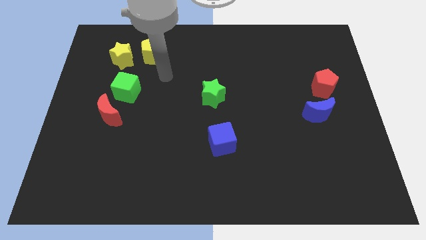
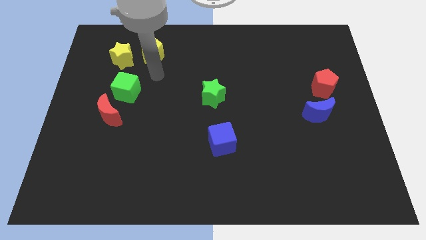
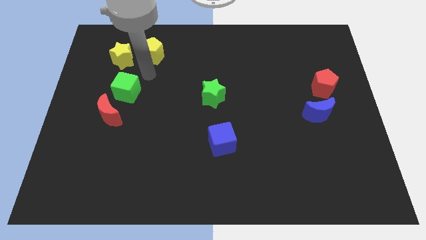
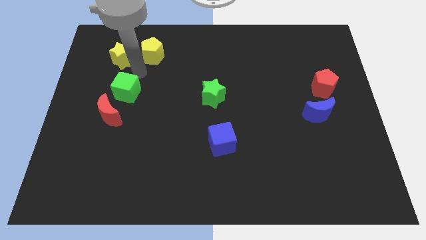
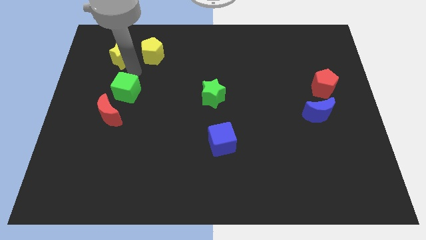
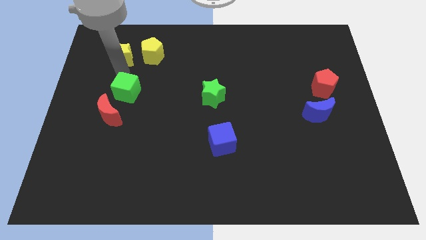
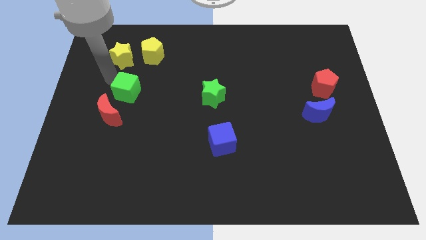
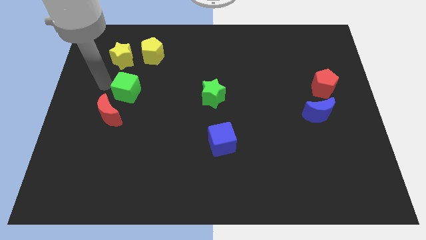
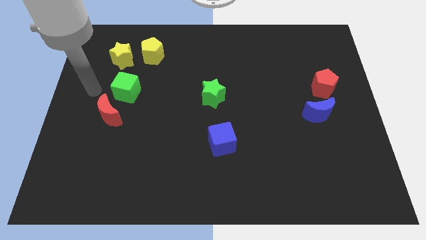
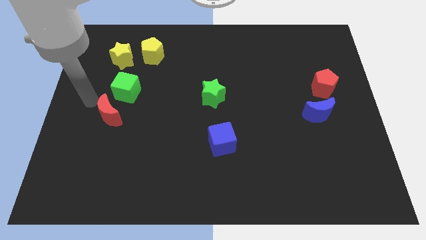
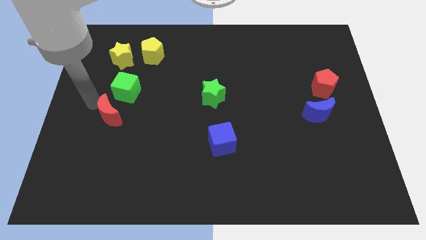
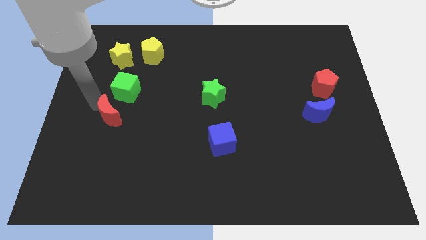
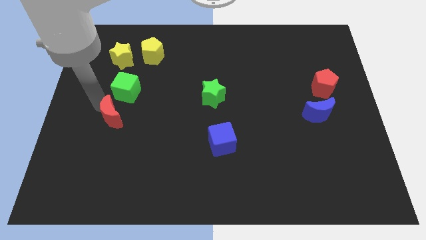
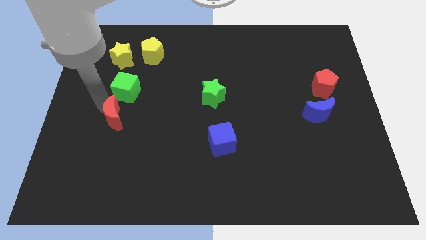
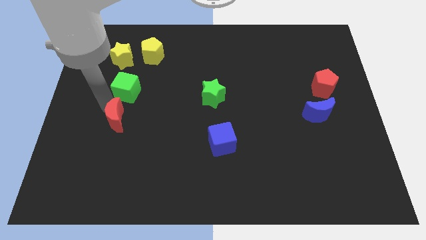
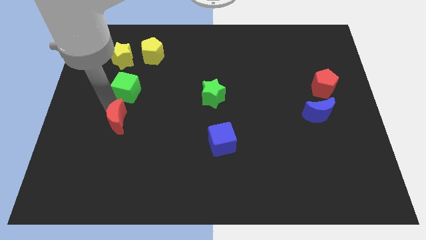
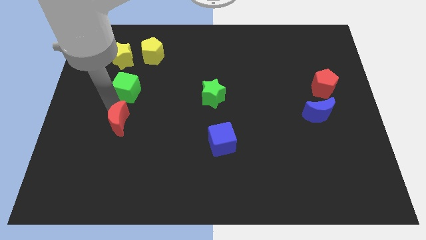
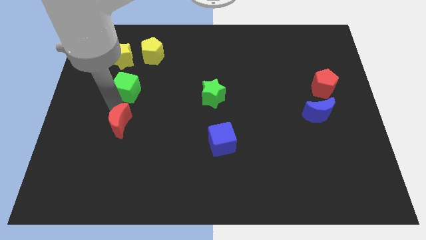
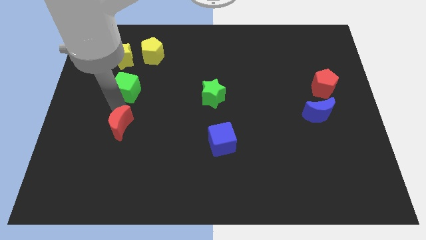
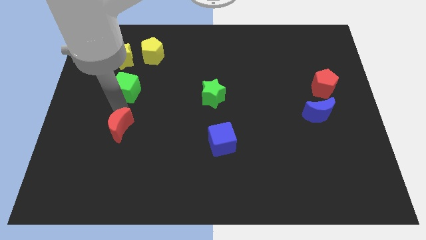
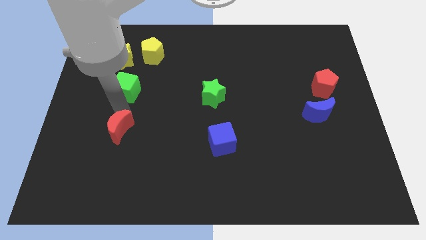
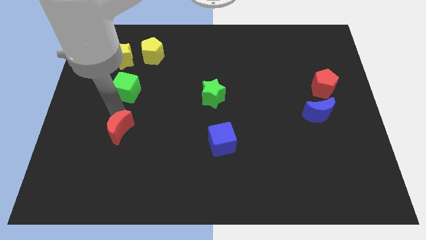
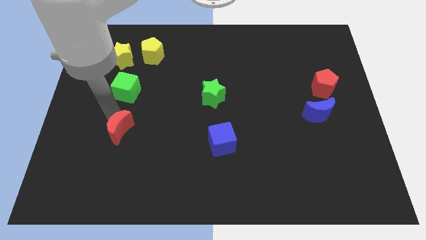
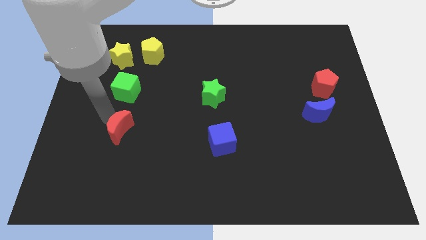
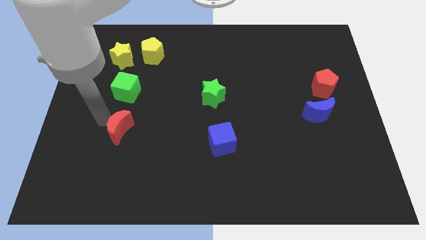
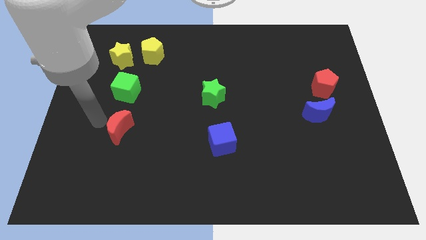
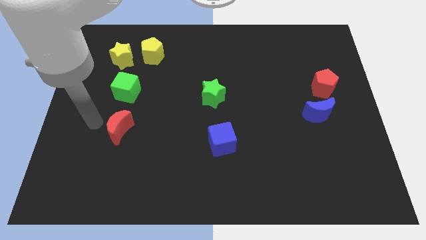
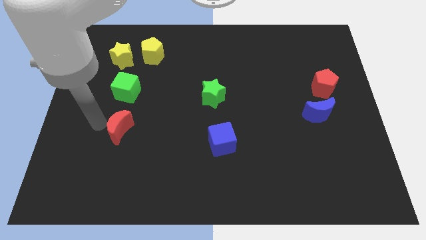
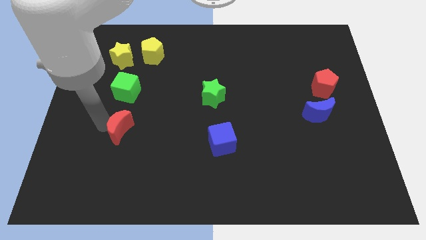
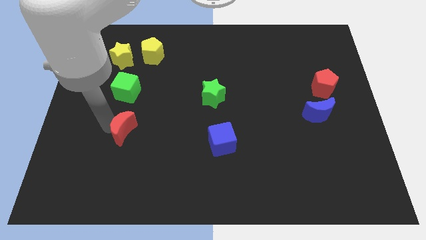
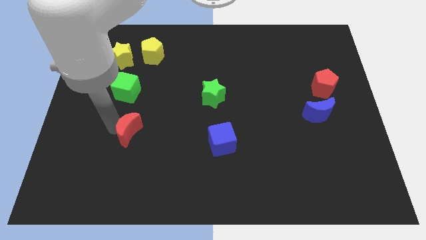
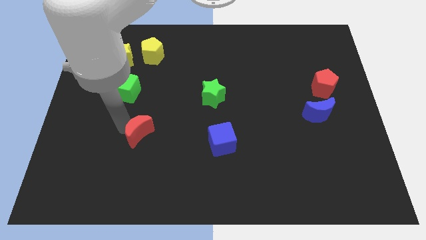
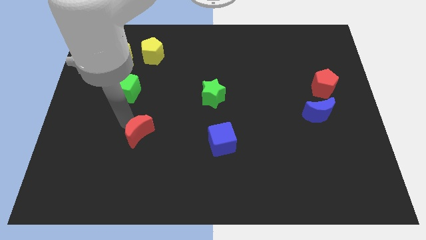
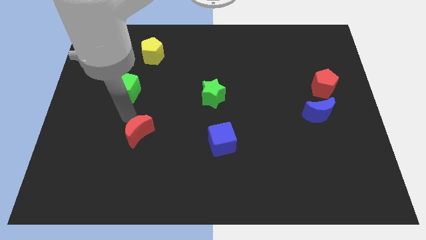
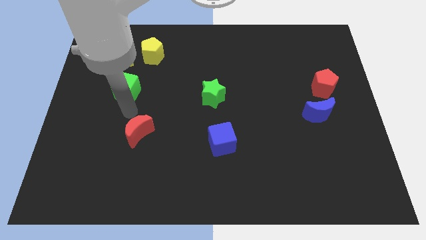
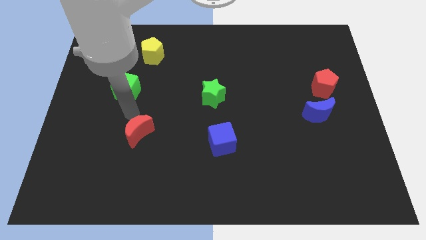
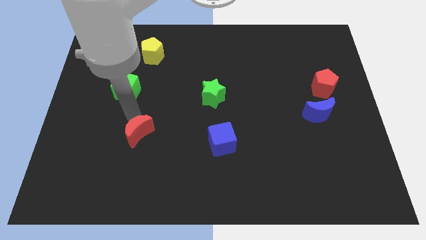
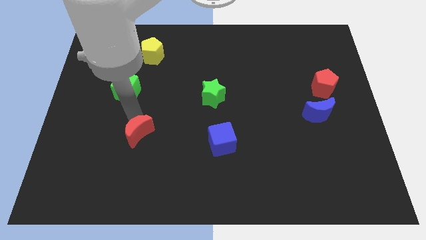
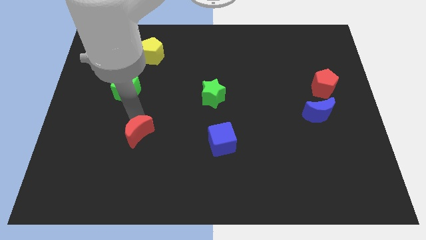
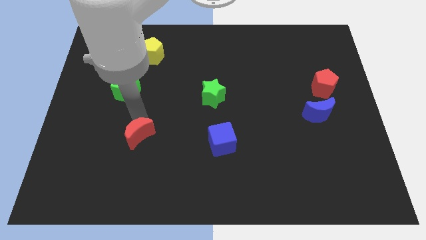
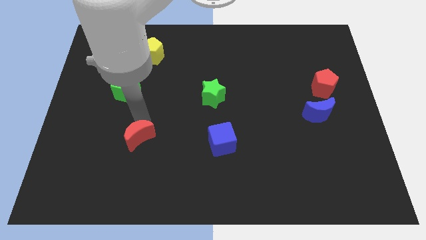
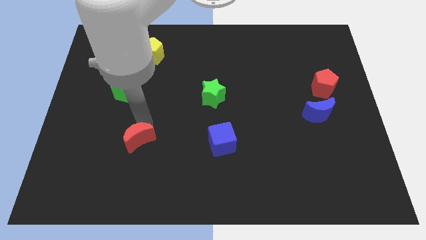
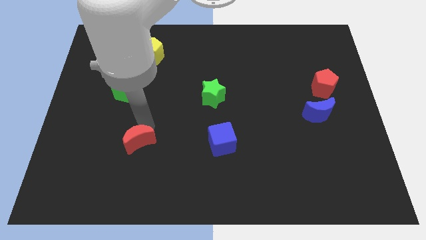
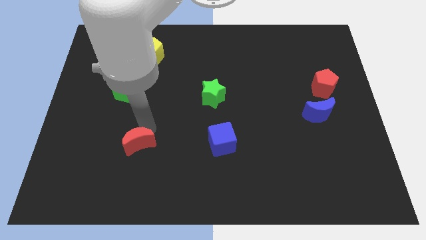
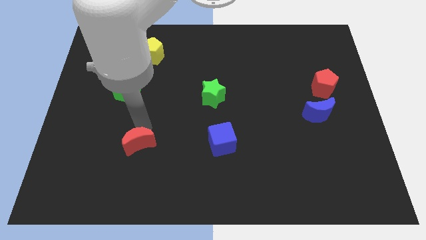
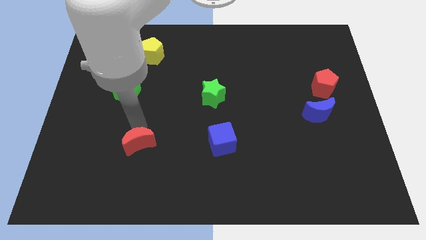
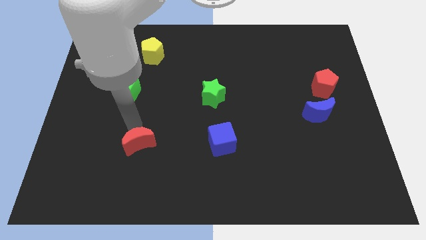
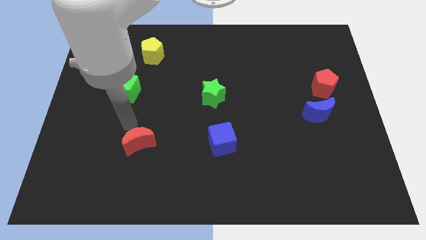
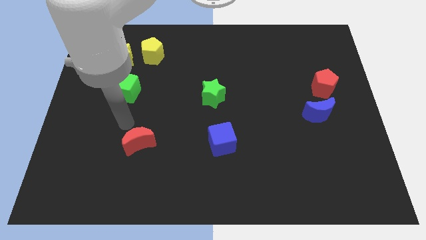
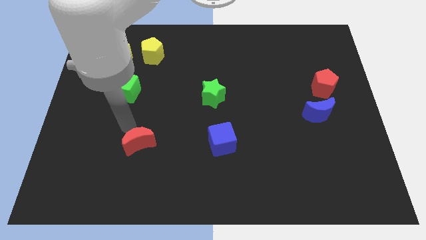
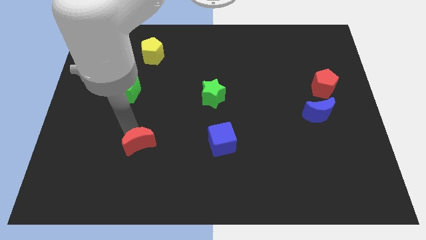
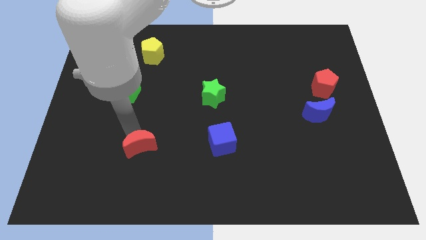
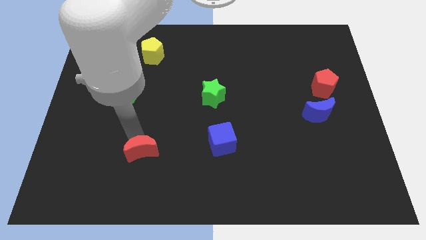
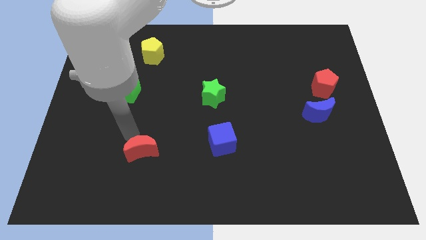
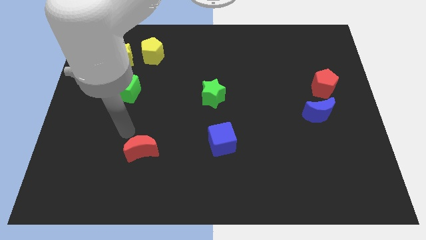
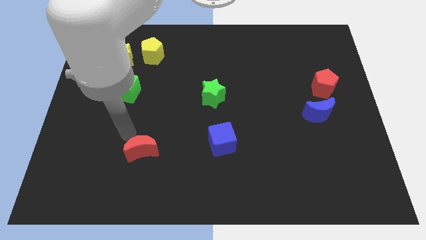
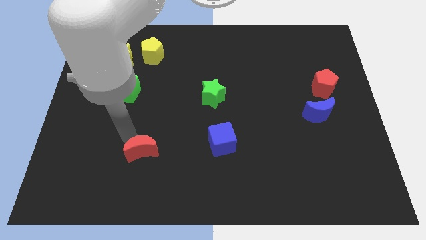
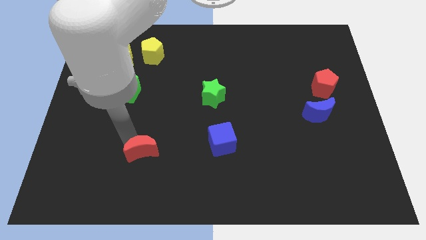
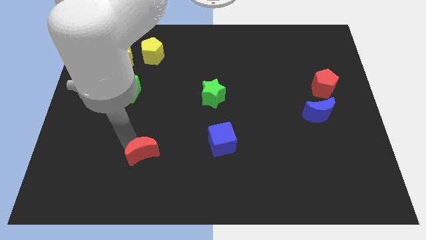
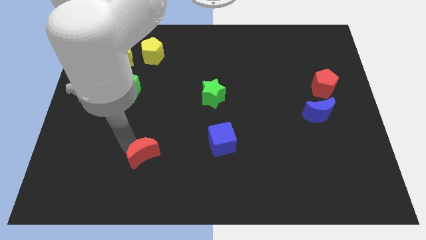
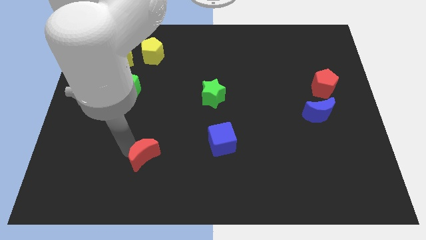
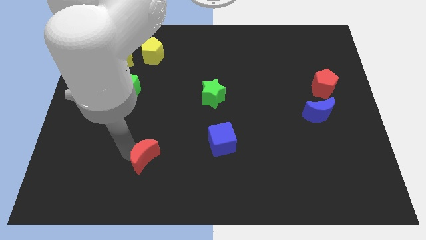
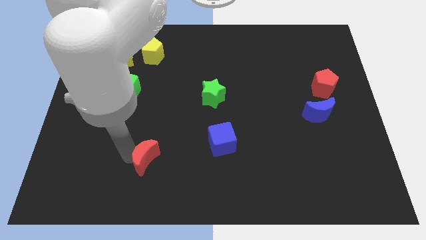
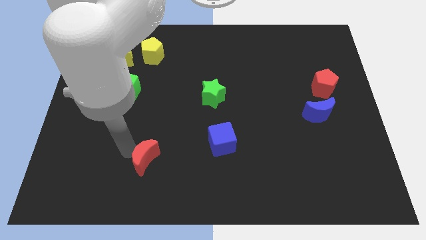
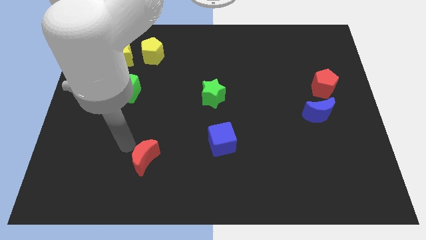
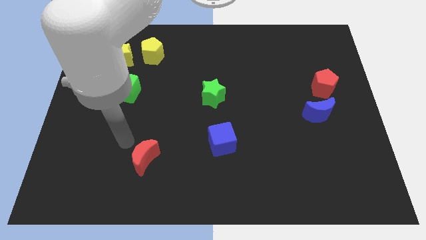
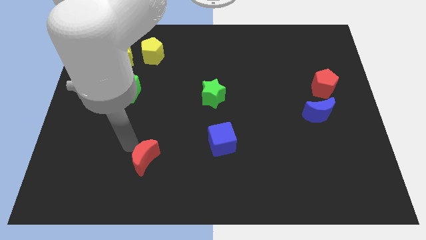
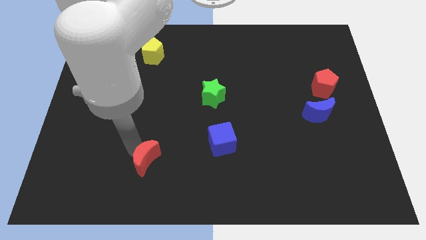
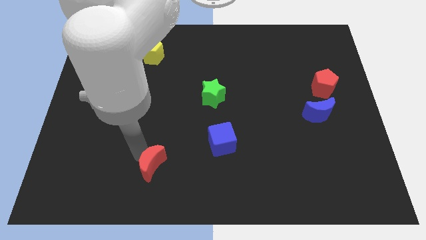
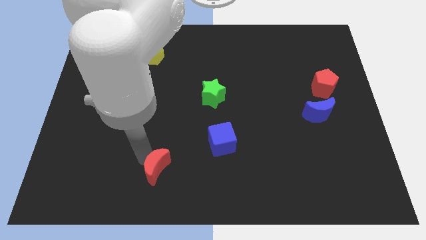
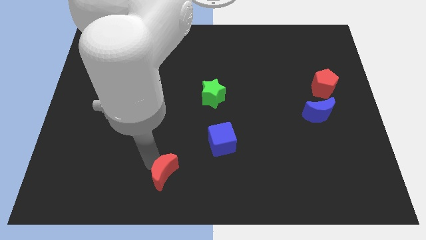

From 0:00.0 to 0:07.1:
move the red moon to the bottom
